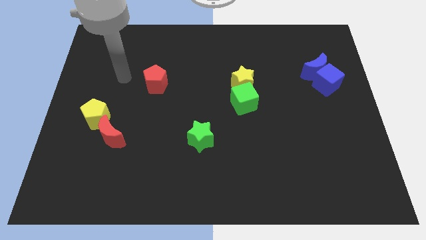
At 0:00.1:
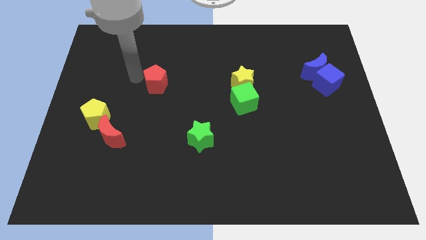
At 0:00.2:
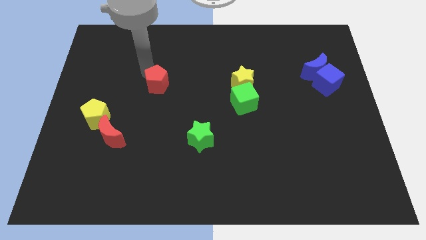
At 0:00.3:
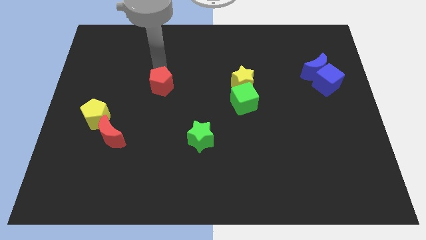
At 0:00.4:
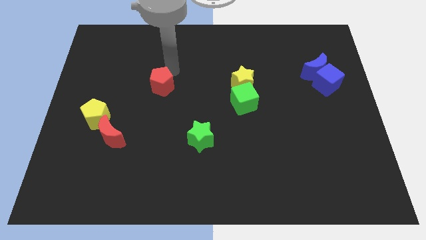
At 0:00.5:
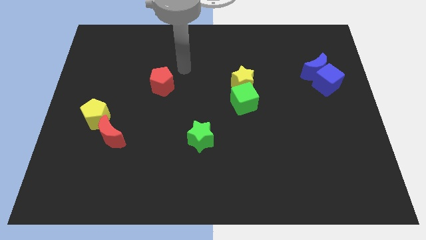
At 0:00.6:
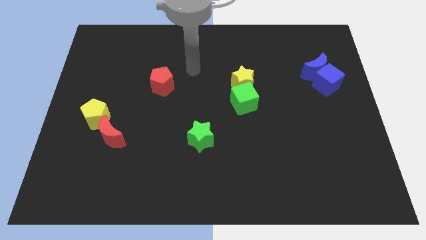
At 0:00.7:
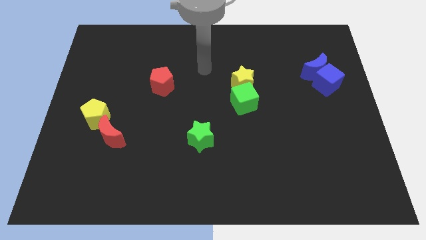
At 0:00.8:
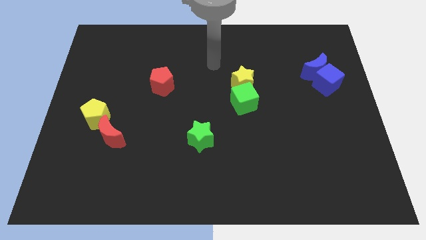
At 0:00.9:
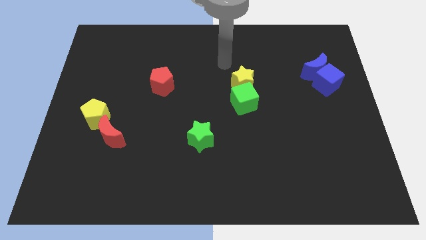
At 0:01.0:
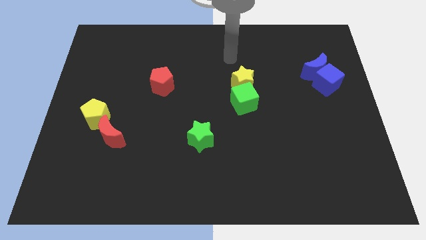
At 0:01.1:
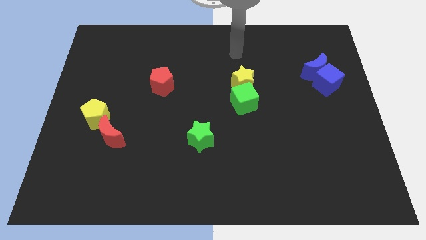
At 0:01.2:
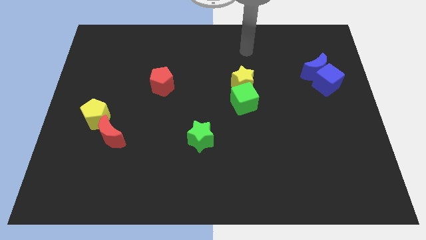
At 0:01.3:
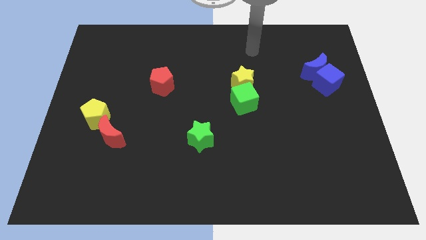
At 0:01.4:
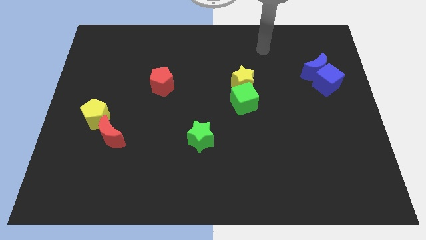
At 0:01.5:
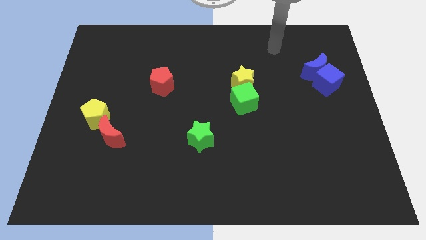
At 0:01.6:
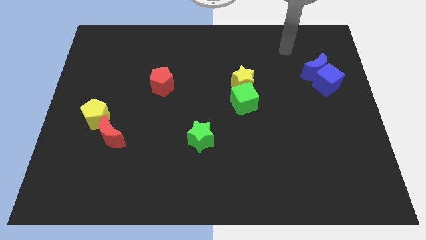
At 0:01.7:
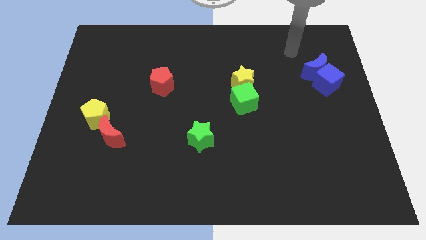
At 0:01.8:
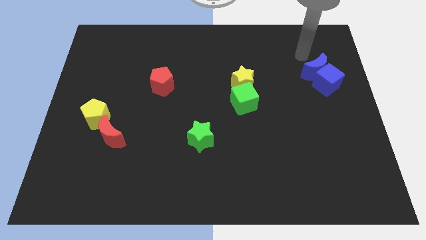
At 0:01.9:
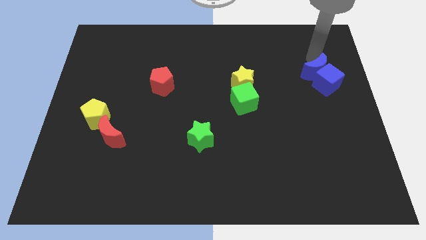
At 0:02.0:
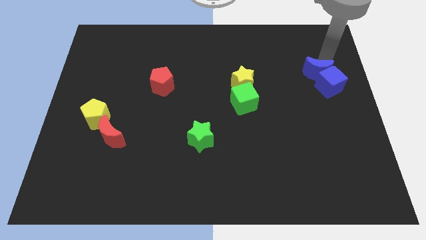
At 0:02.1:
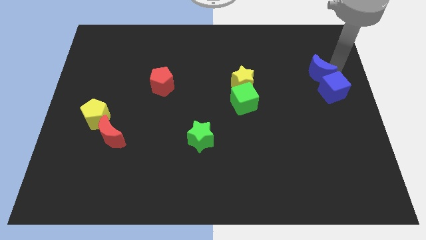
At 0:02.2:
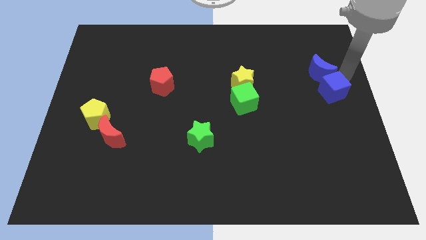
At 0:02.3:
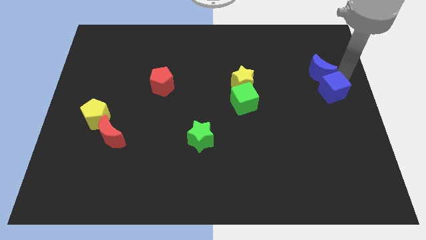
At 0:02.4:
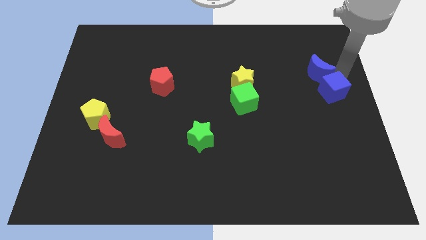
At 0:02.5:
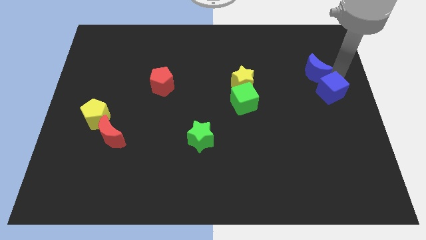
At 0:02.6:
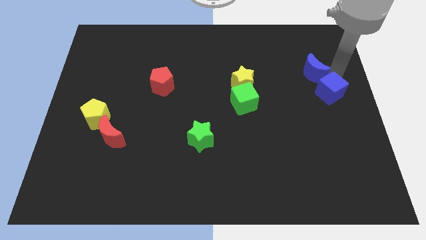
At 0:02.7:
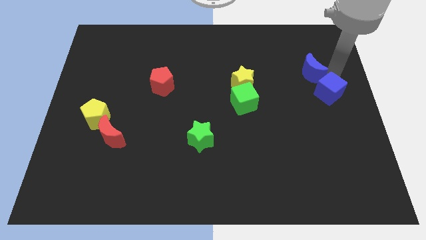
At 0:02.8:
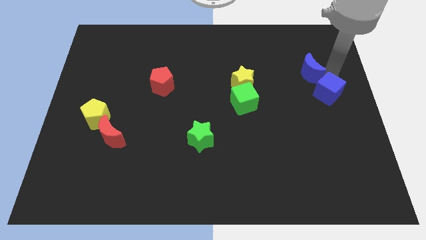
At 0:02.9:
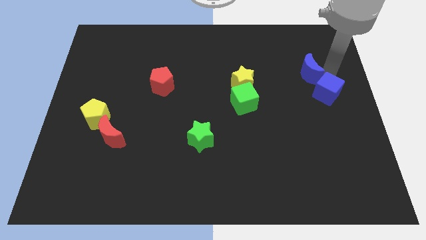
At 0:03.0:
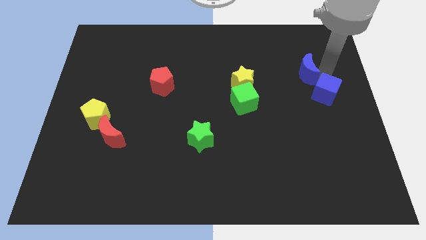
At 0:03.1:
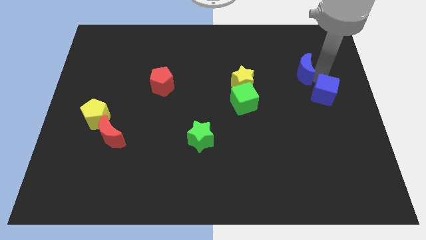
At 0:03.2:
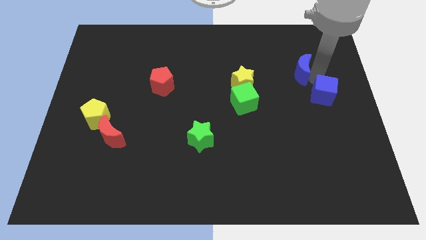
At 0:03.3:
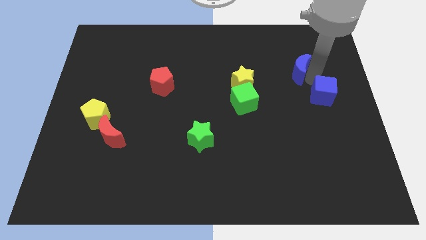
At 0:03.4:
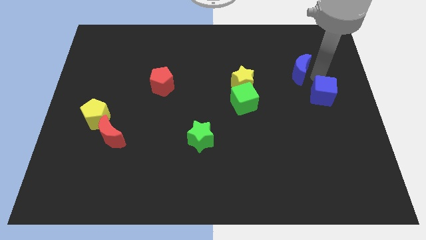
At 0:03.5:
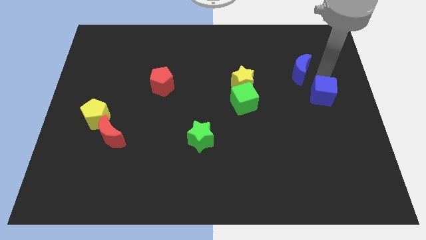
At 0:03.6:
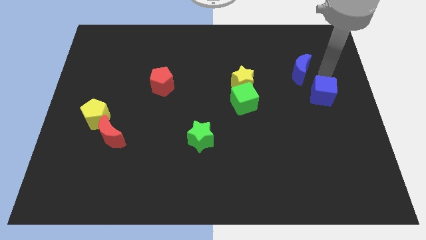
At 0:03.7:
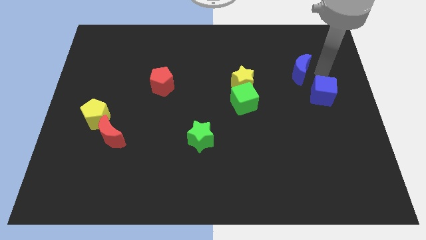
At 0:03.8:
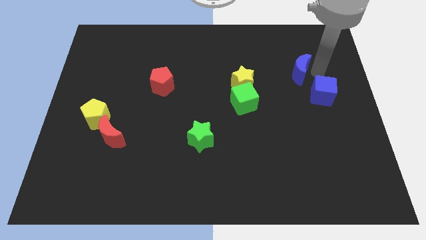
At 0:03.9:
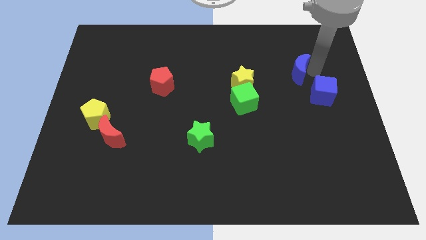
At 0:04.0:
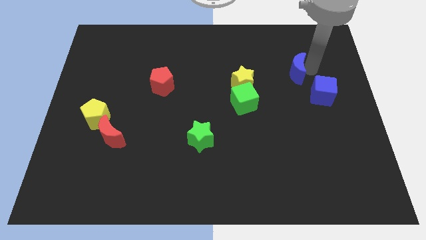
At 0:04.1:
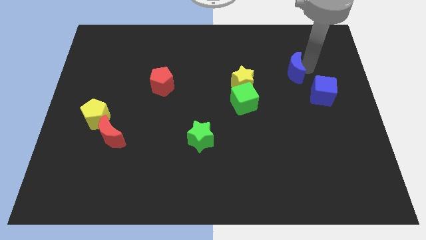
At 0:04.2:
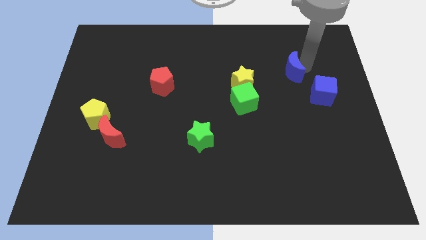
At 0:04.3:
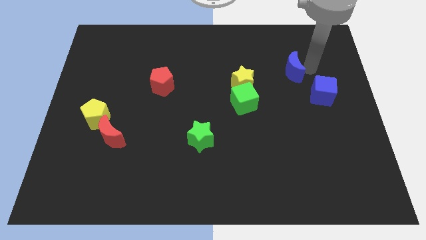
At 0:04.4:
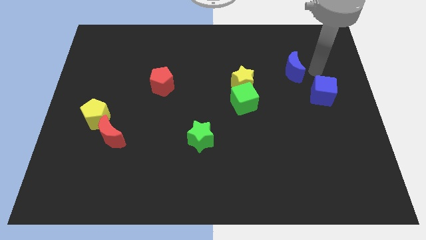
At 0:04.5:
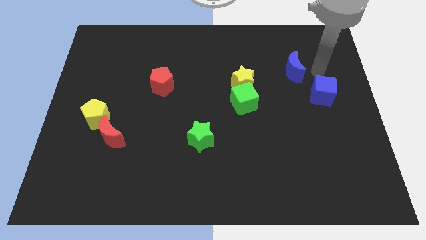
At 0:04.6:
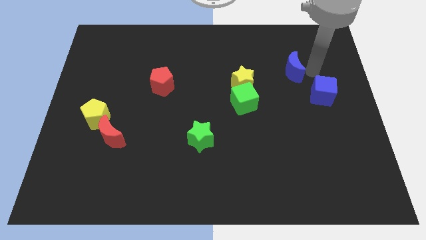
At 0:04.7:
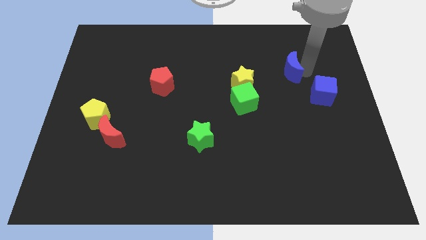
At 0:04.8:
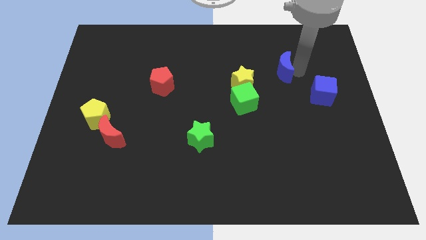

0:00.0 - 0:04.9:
slightly push the blue moon left

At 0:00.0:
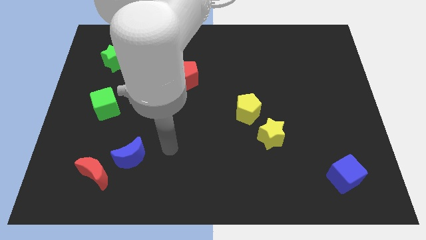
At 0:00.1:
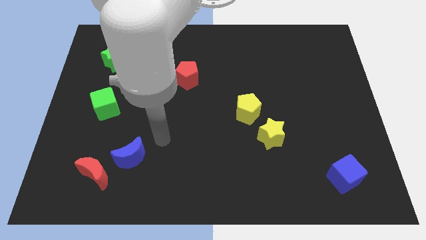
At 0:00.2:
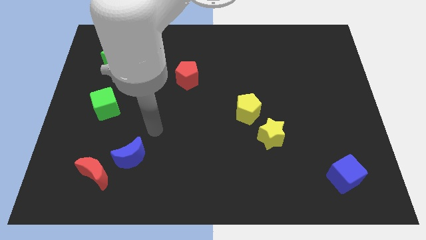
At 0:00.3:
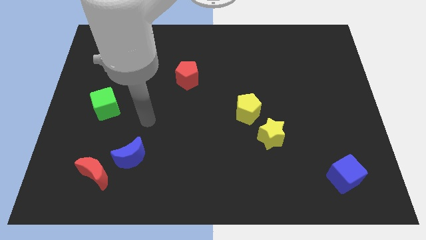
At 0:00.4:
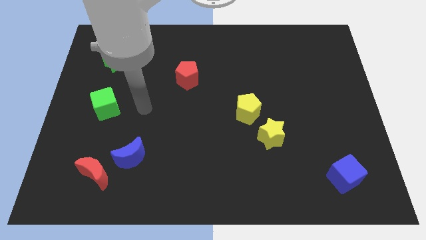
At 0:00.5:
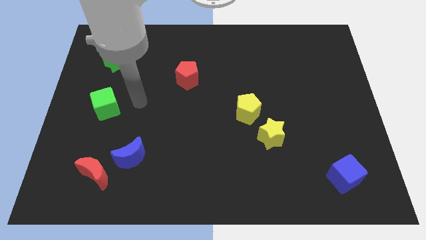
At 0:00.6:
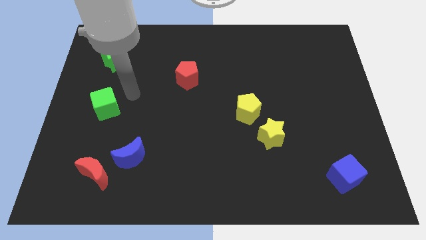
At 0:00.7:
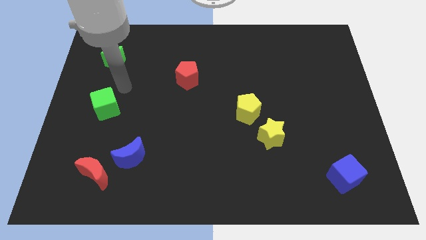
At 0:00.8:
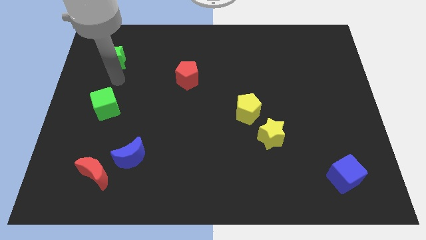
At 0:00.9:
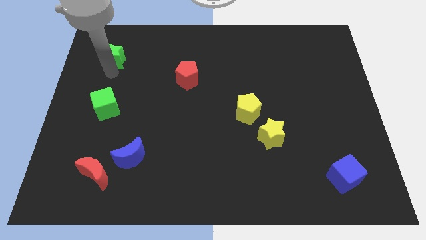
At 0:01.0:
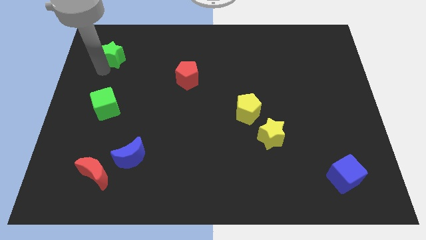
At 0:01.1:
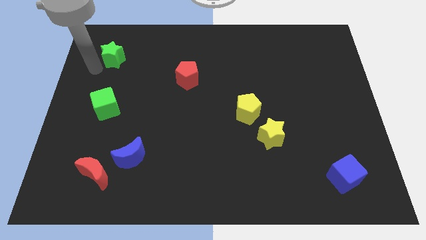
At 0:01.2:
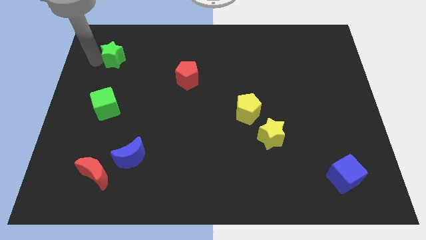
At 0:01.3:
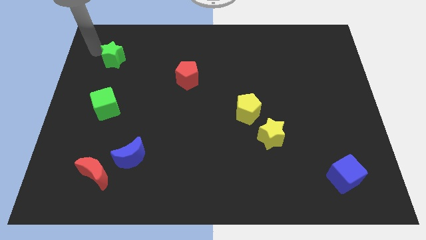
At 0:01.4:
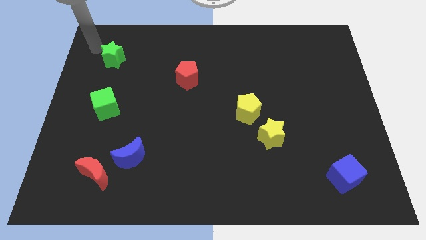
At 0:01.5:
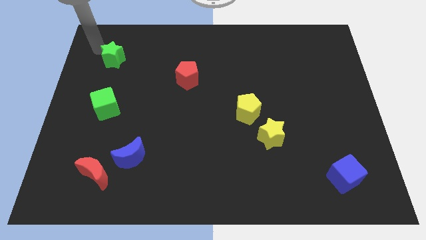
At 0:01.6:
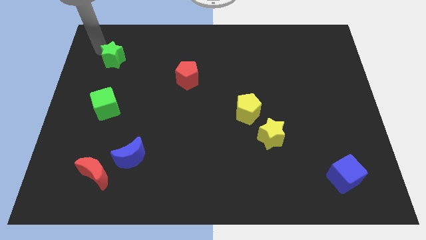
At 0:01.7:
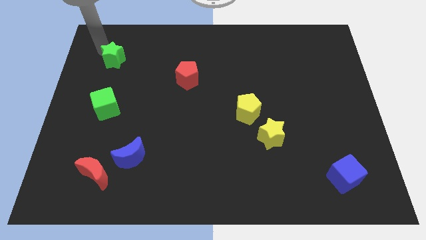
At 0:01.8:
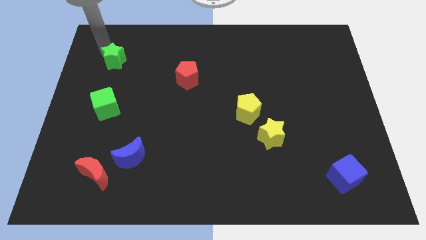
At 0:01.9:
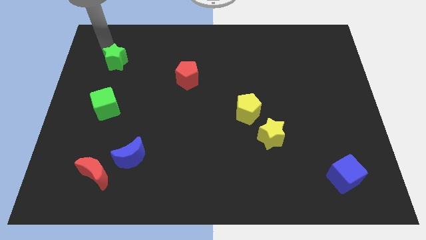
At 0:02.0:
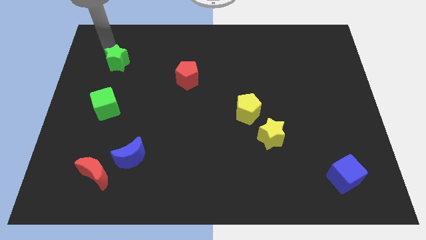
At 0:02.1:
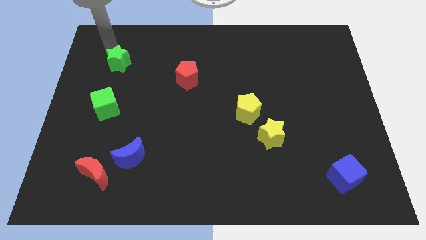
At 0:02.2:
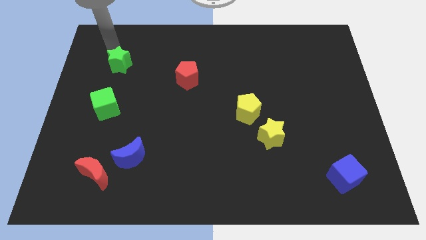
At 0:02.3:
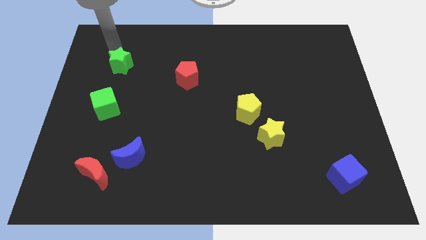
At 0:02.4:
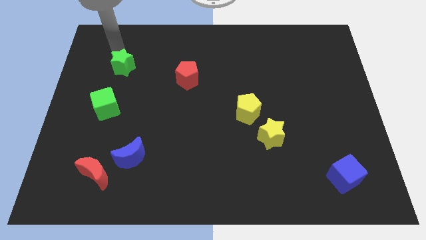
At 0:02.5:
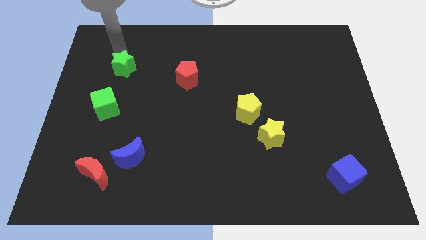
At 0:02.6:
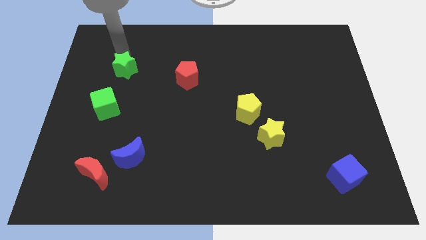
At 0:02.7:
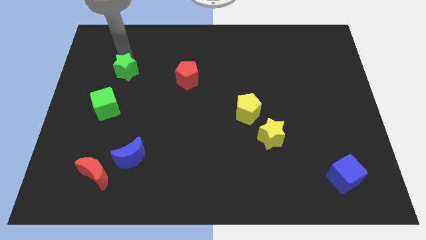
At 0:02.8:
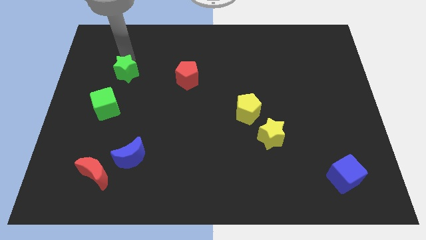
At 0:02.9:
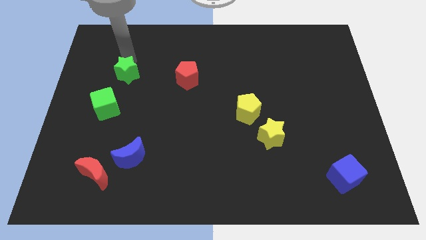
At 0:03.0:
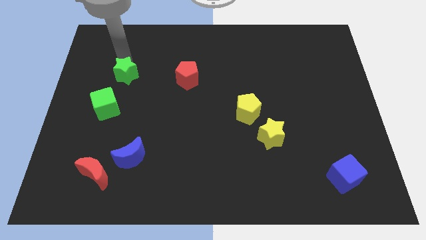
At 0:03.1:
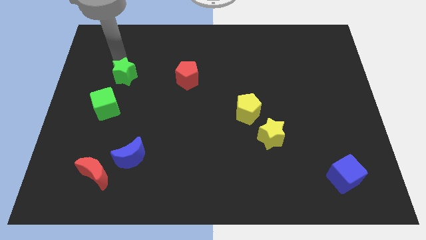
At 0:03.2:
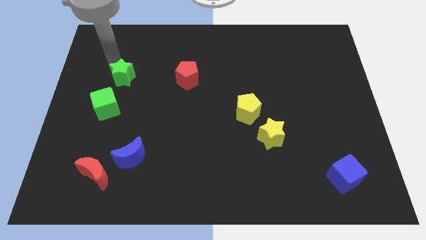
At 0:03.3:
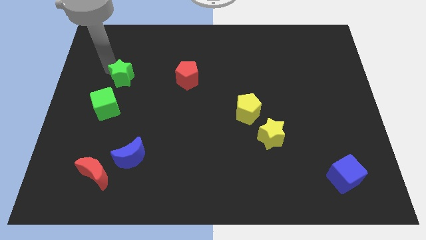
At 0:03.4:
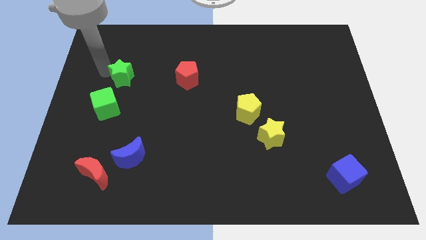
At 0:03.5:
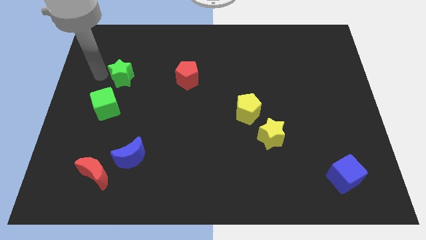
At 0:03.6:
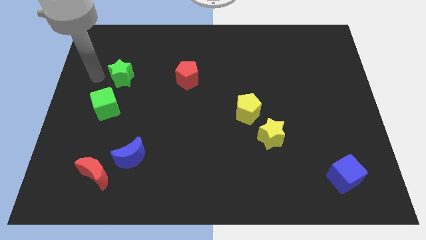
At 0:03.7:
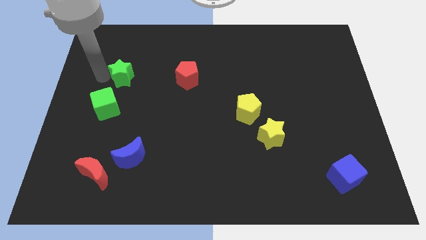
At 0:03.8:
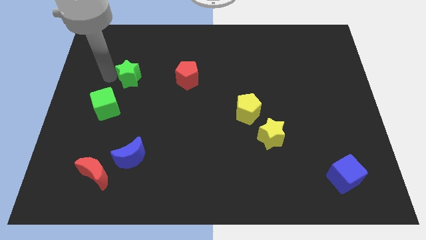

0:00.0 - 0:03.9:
slightly push the green star down and to the right diagonally
